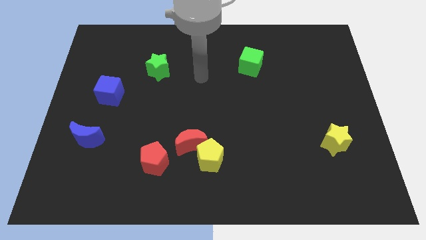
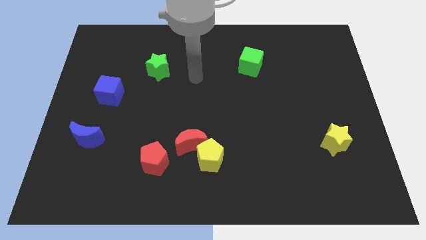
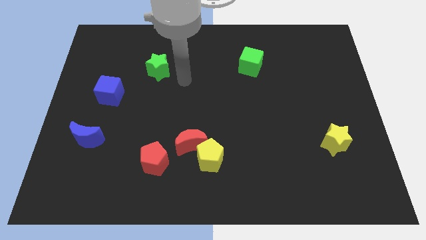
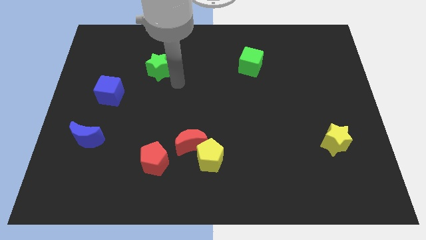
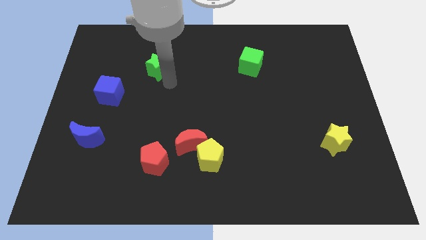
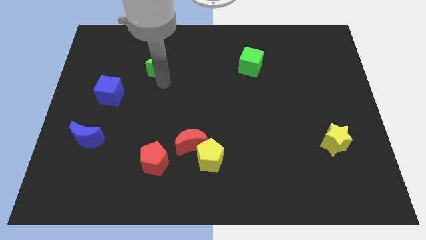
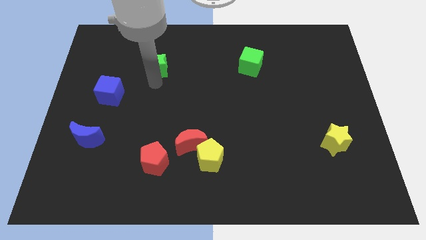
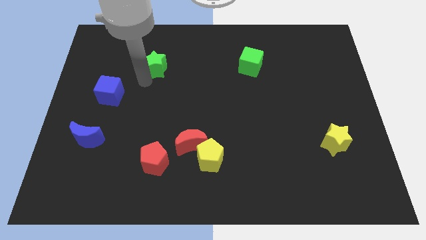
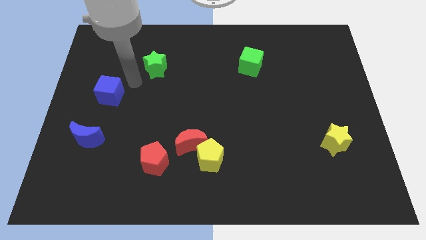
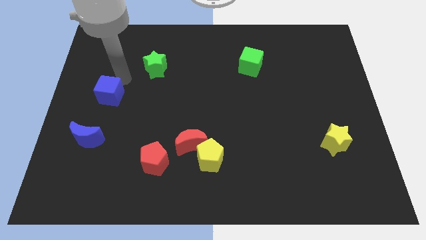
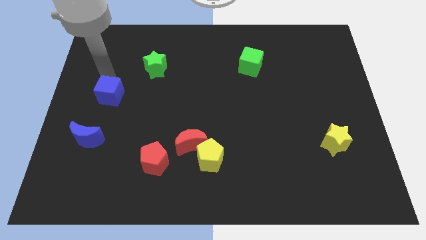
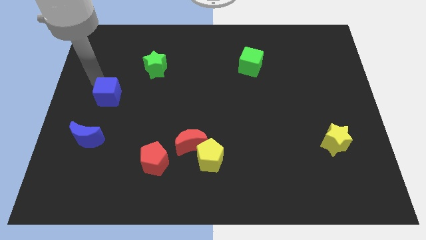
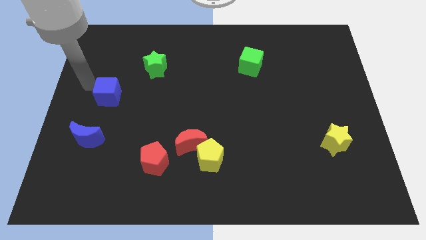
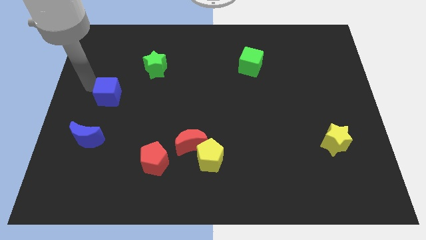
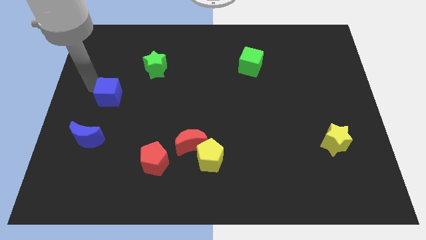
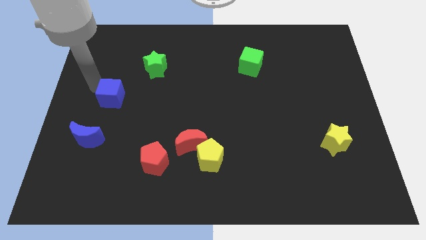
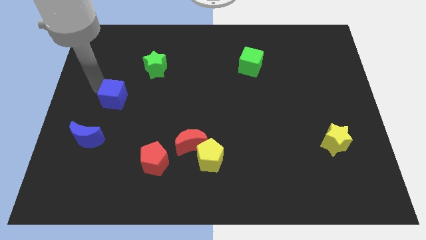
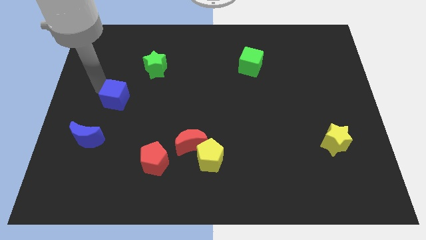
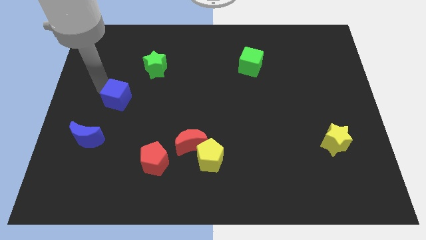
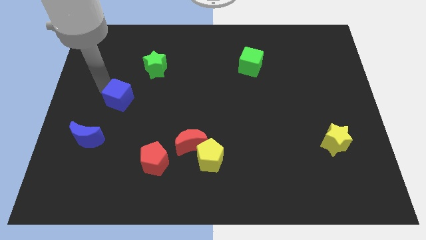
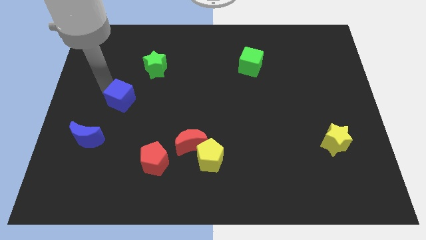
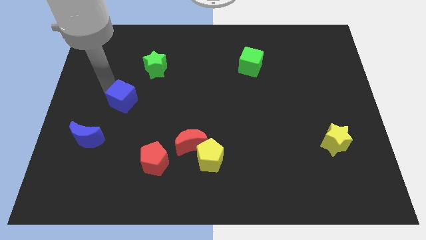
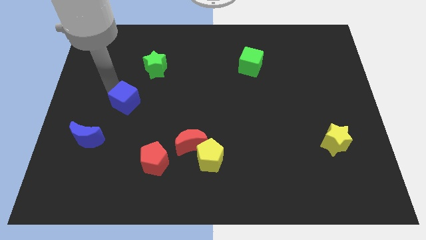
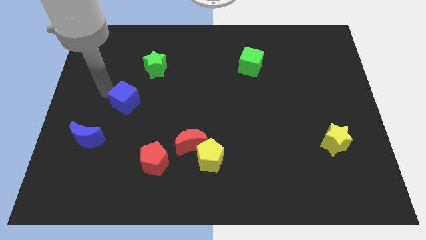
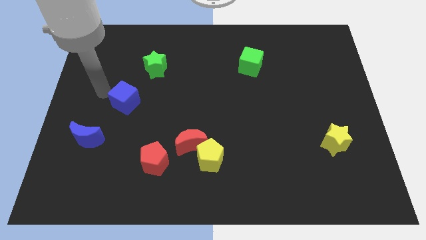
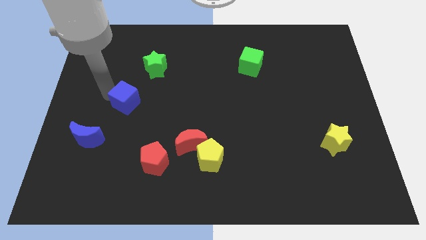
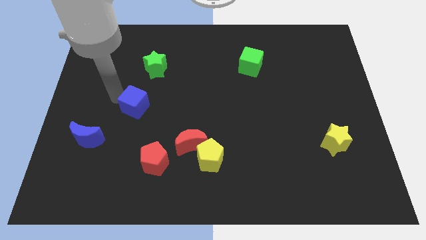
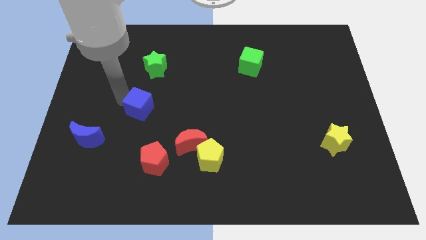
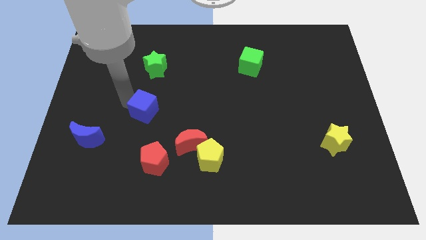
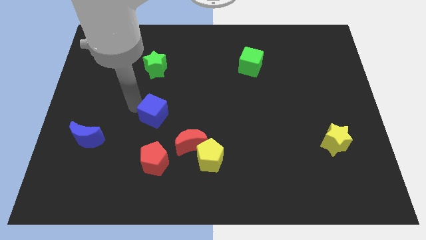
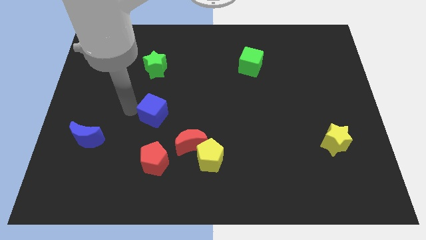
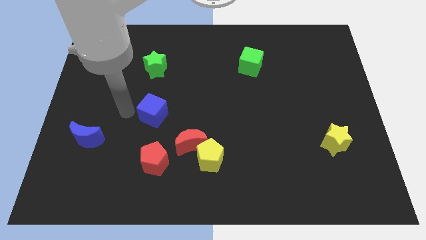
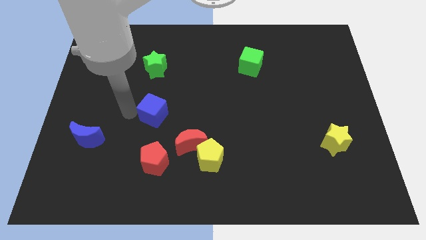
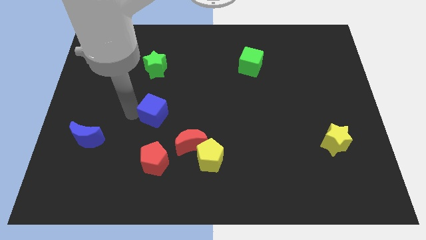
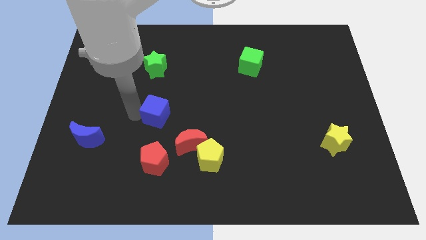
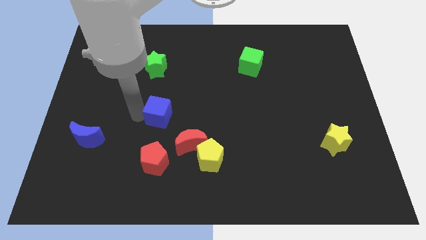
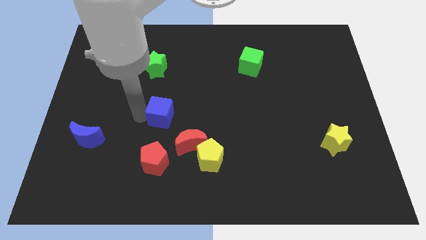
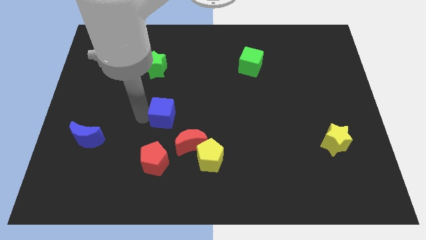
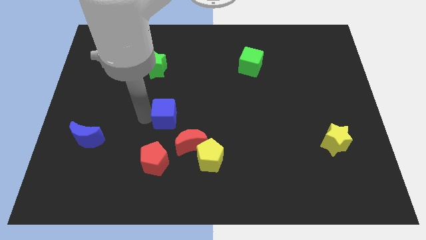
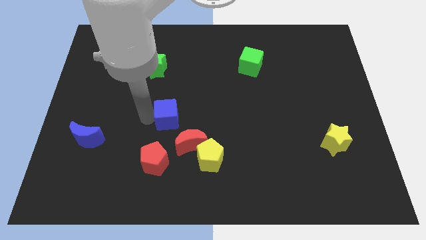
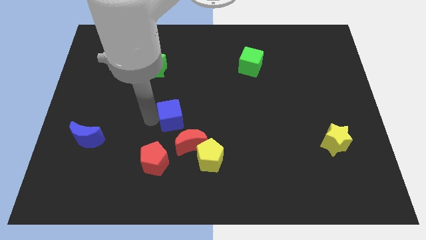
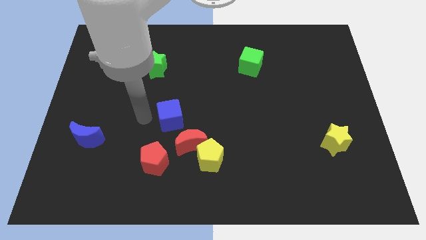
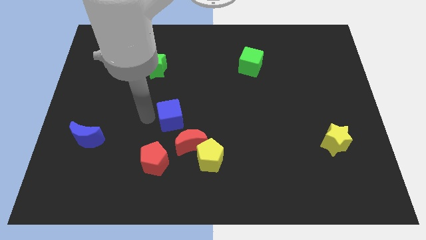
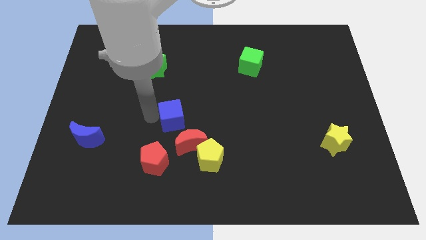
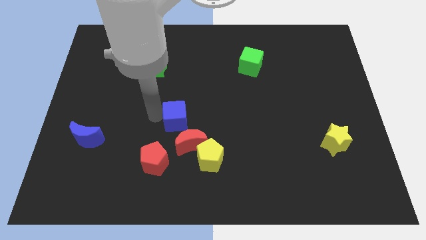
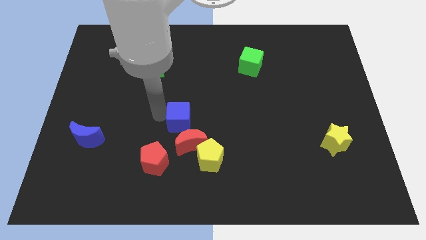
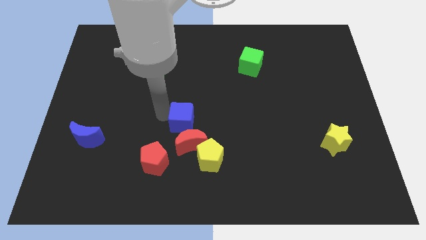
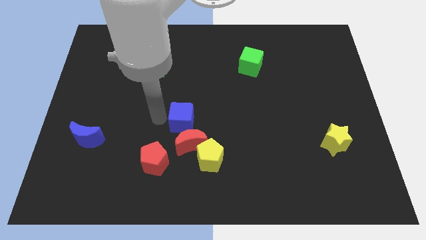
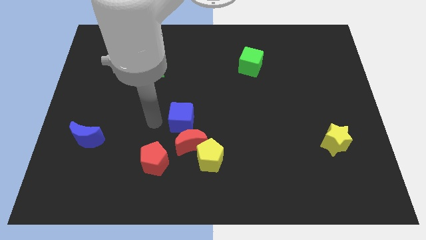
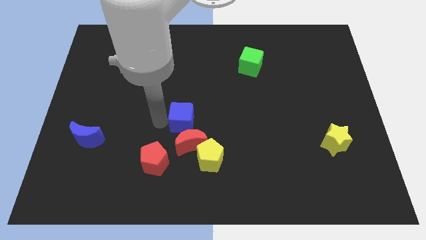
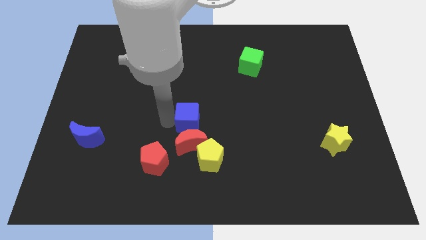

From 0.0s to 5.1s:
put the blue cube above the yellow pentagon

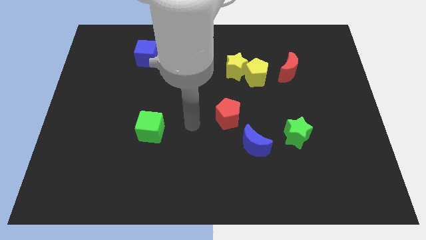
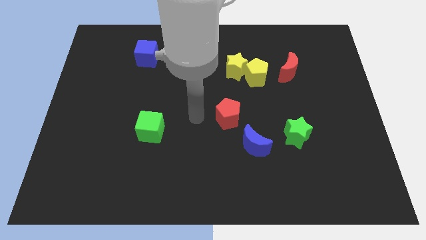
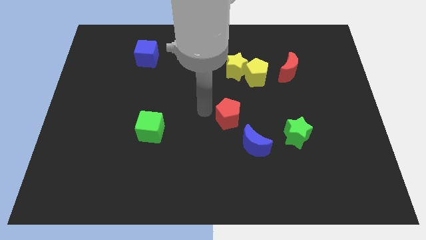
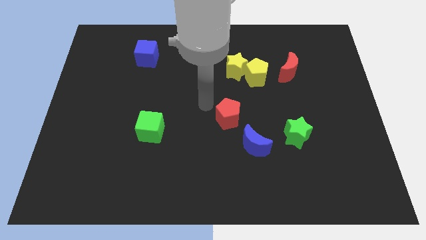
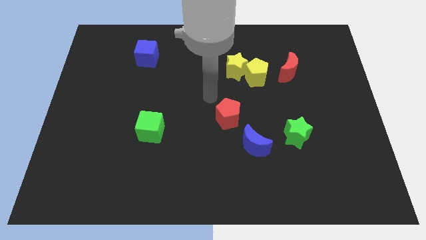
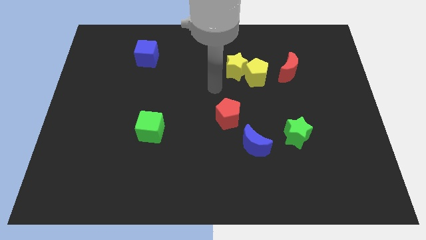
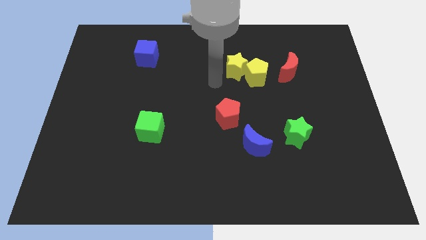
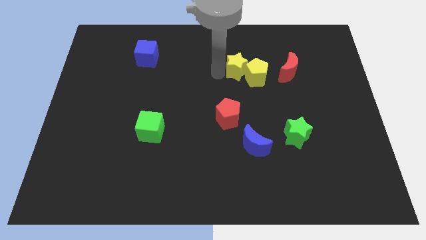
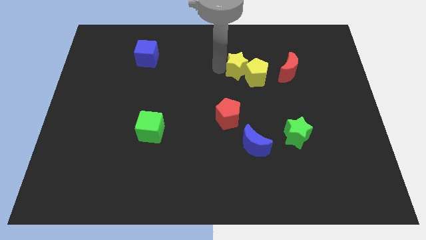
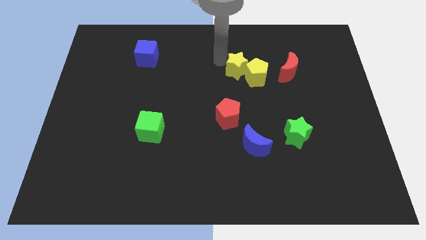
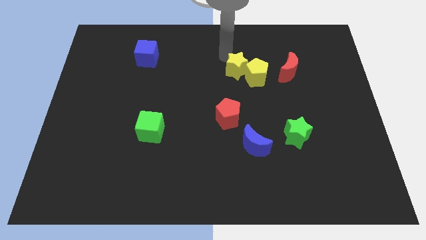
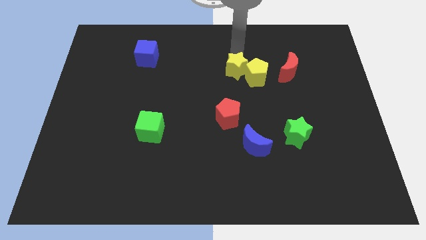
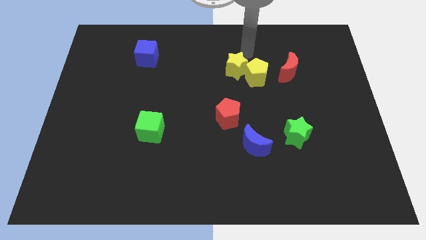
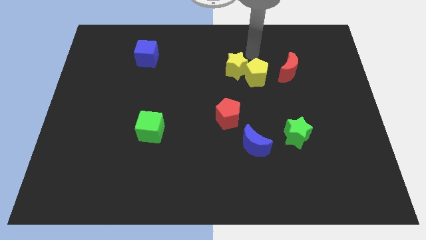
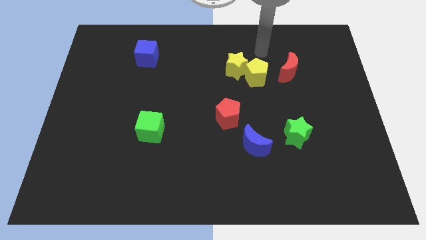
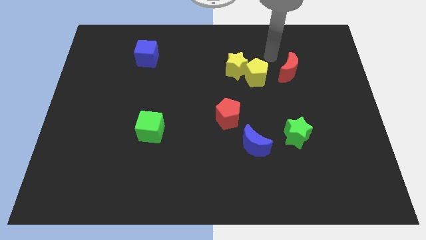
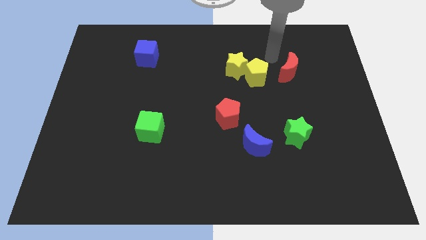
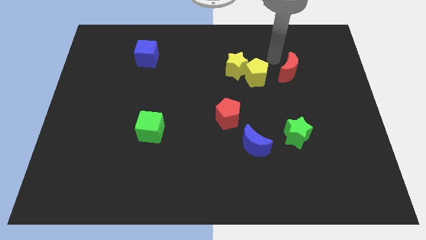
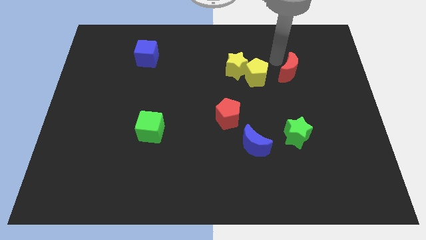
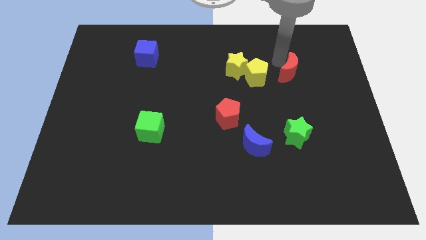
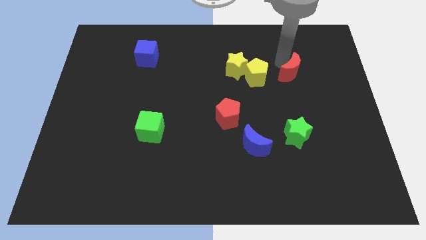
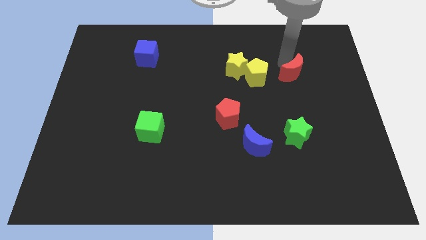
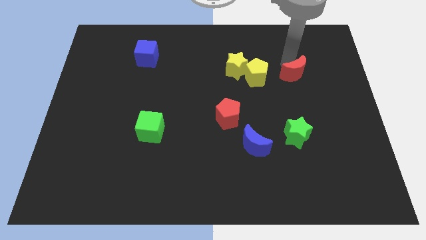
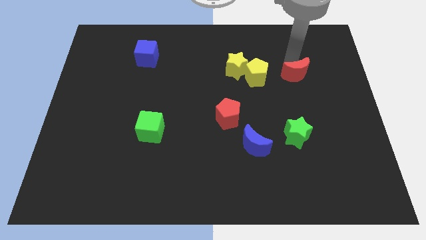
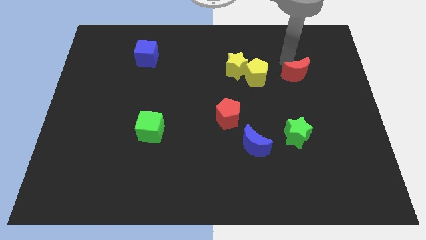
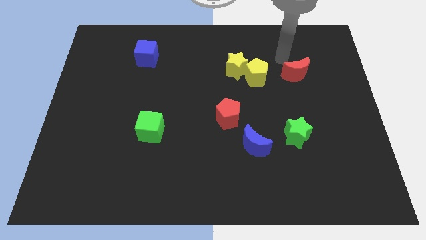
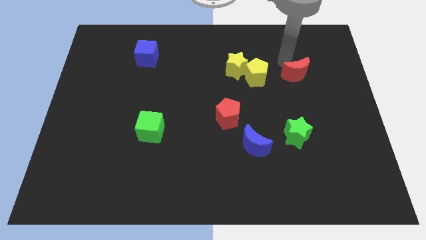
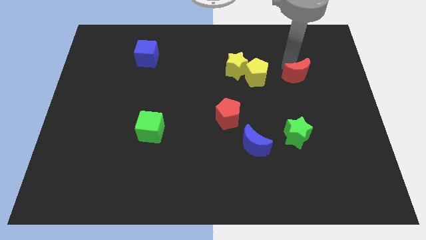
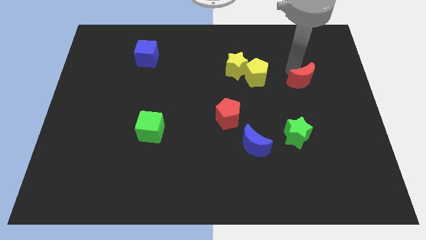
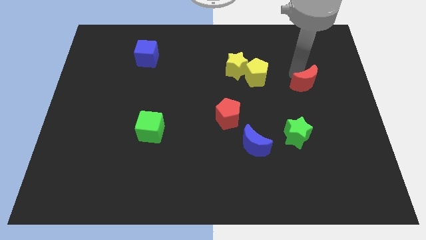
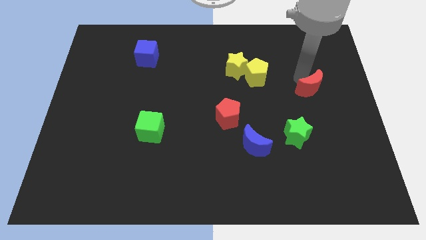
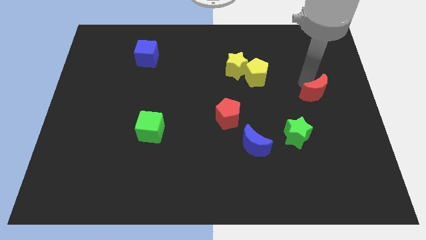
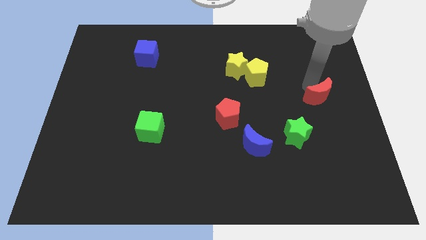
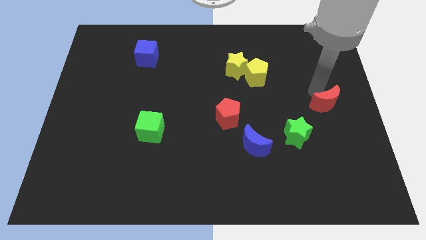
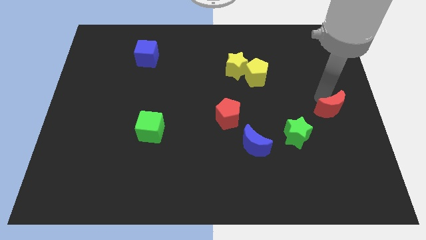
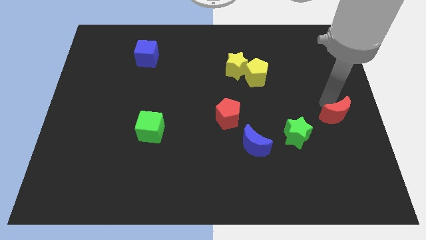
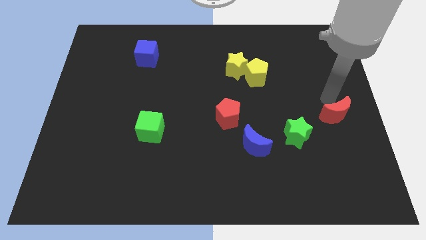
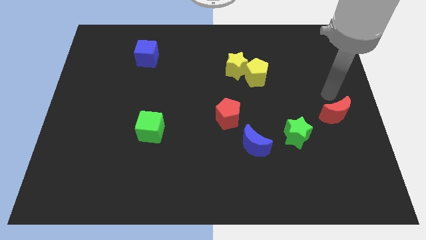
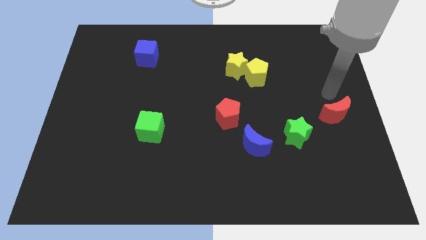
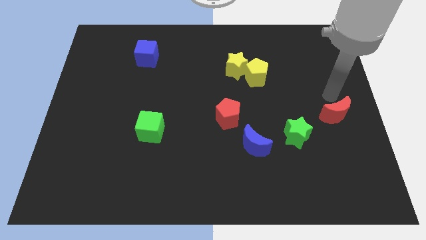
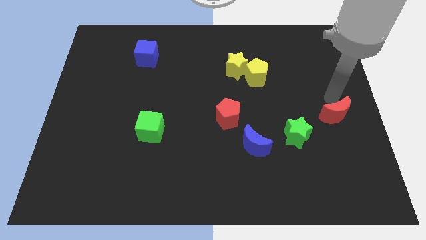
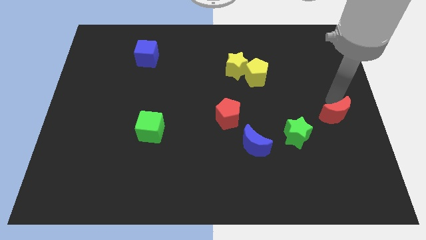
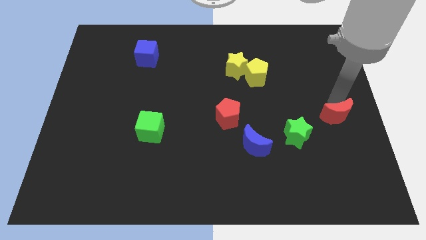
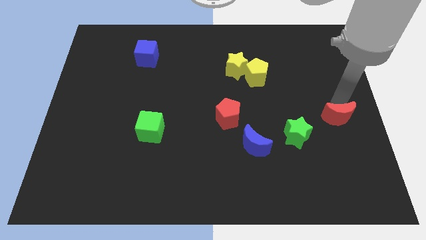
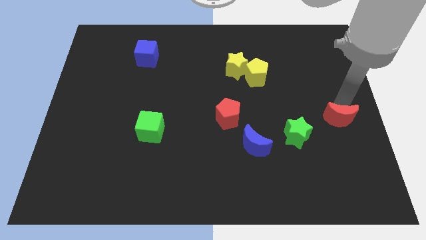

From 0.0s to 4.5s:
slide the red moon just right of the green star
